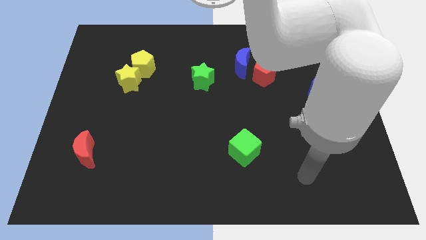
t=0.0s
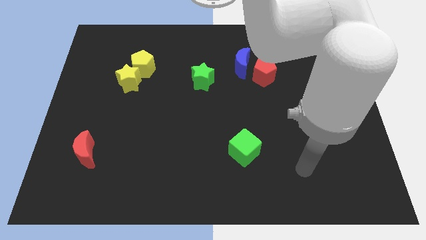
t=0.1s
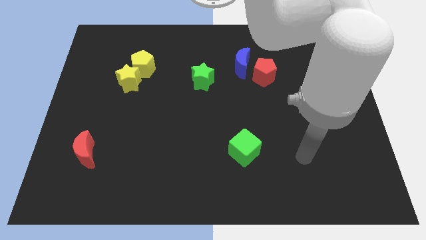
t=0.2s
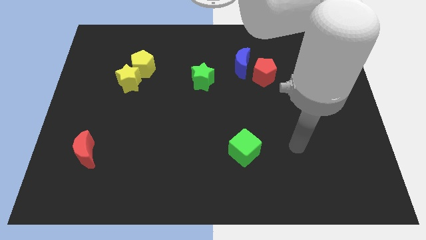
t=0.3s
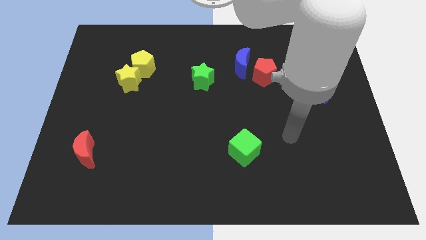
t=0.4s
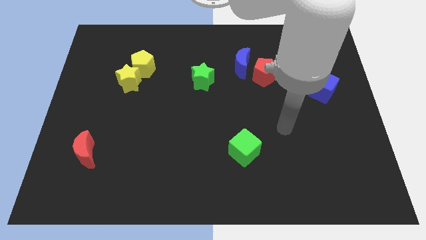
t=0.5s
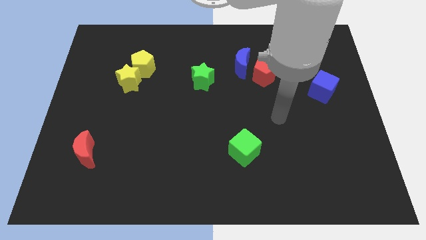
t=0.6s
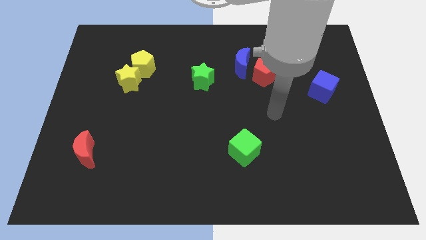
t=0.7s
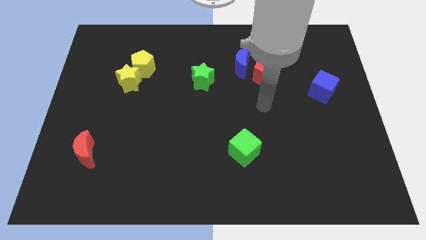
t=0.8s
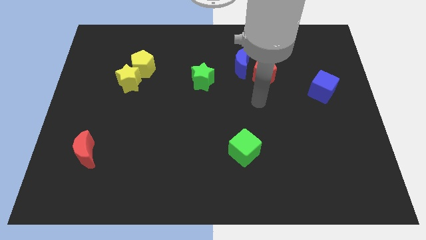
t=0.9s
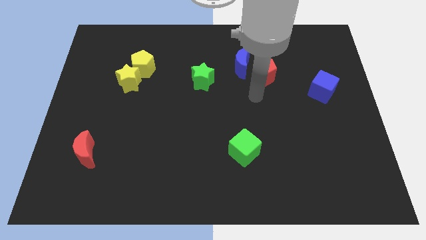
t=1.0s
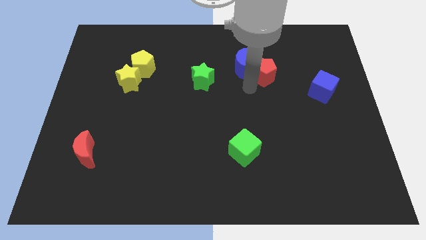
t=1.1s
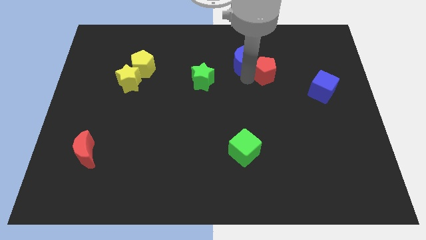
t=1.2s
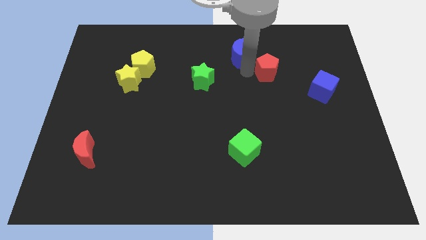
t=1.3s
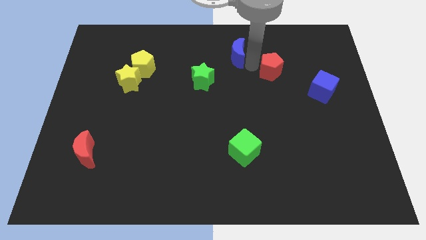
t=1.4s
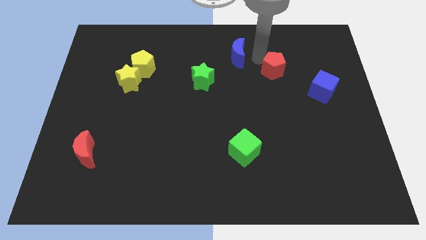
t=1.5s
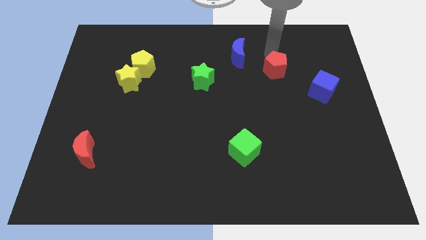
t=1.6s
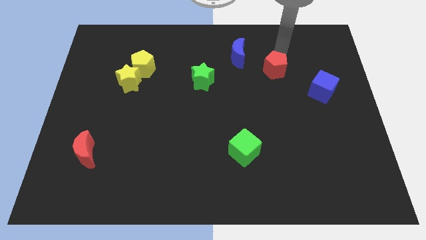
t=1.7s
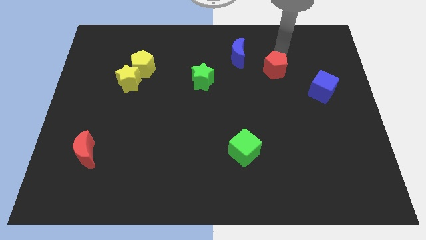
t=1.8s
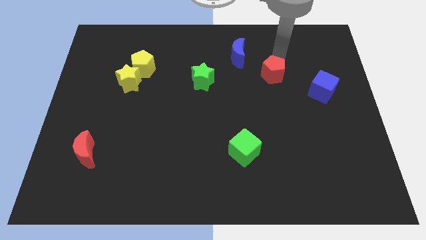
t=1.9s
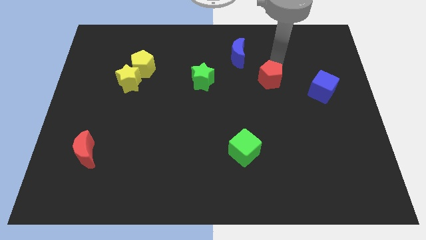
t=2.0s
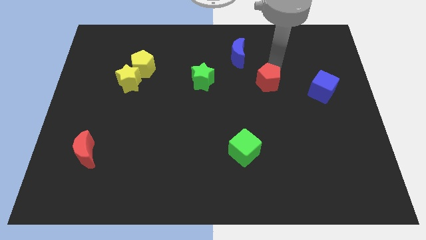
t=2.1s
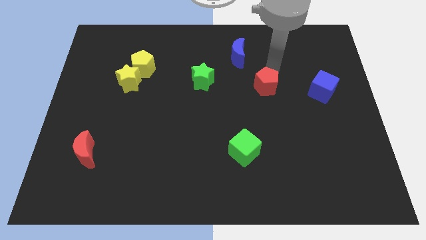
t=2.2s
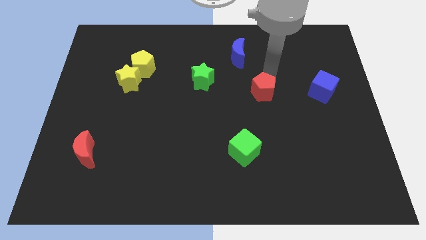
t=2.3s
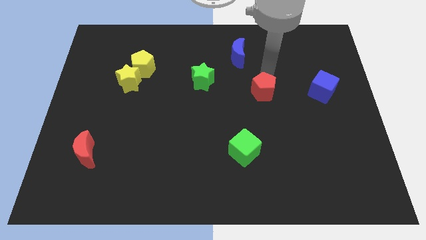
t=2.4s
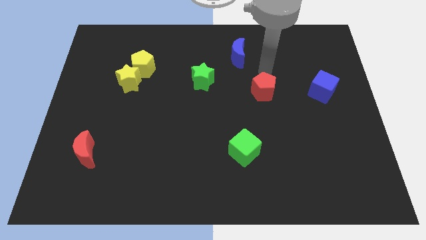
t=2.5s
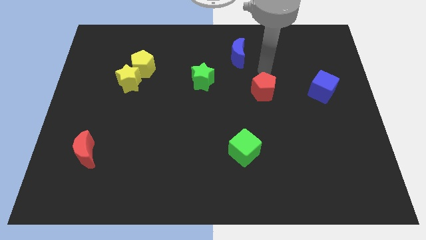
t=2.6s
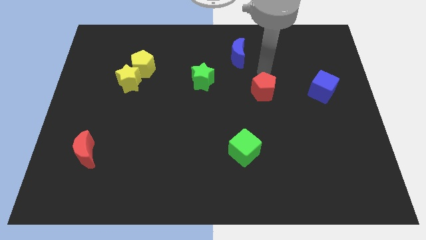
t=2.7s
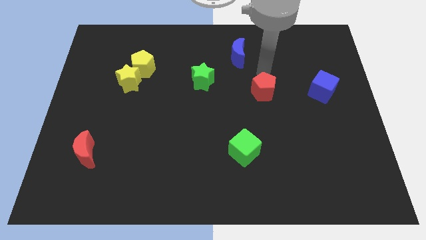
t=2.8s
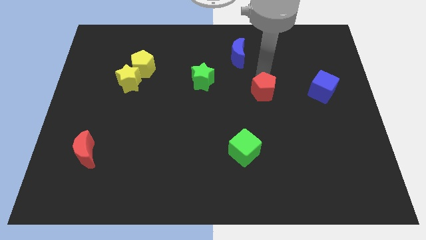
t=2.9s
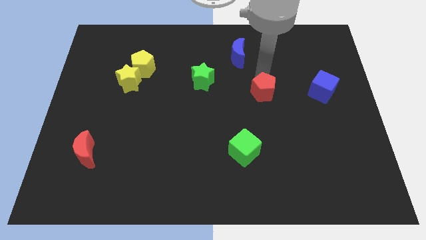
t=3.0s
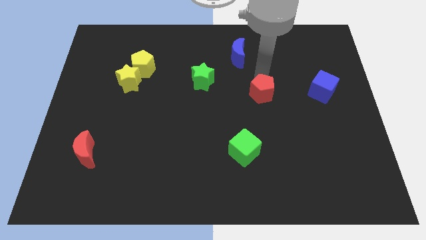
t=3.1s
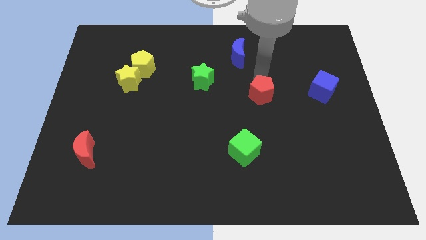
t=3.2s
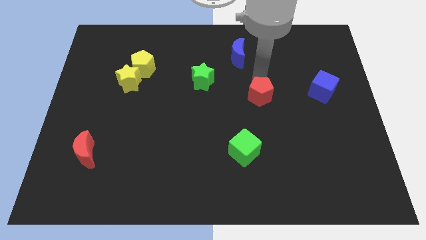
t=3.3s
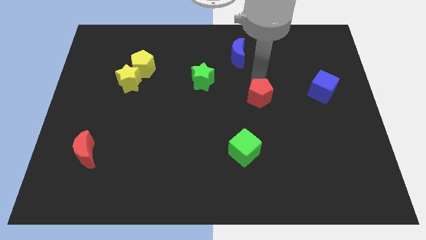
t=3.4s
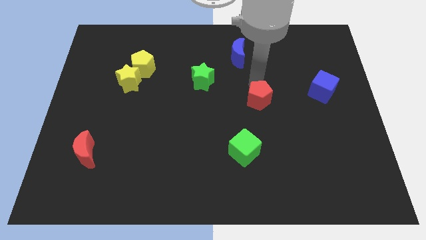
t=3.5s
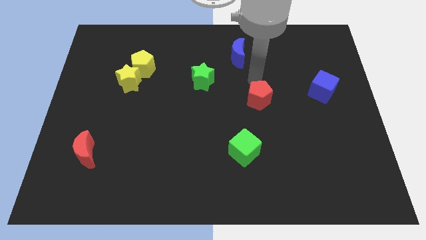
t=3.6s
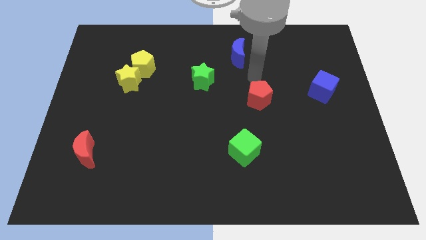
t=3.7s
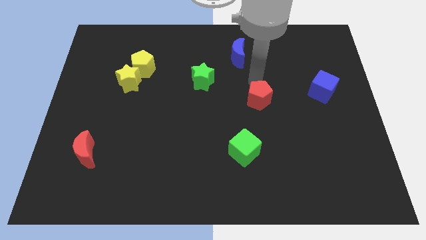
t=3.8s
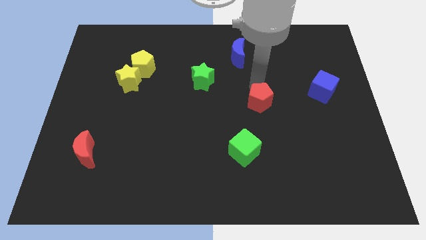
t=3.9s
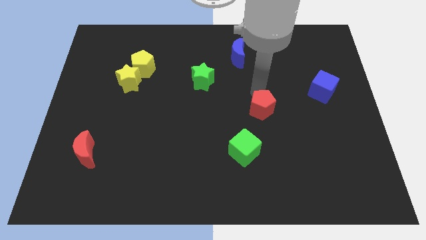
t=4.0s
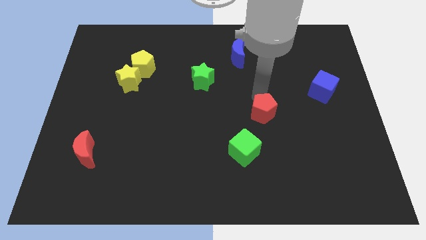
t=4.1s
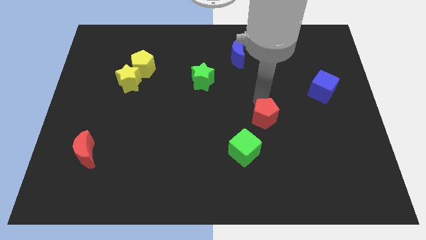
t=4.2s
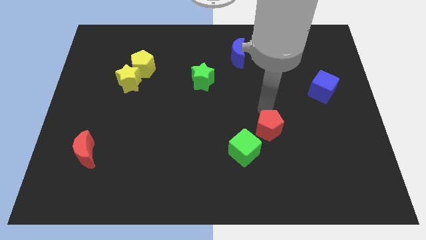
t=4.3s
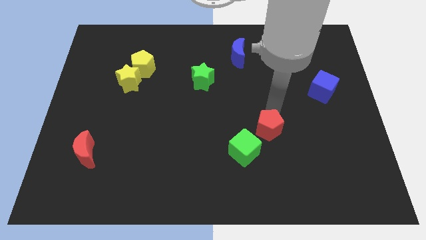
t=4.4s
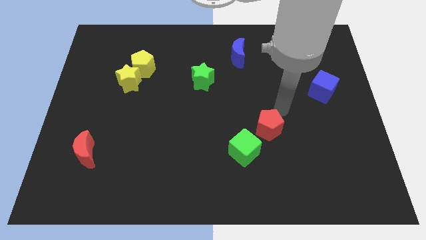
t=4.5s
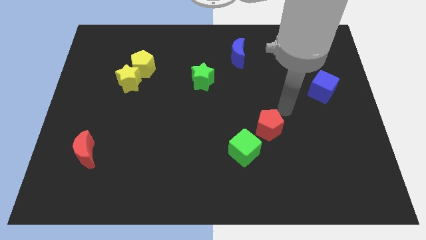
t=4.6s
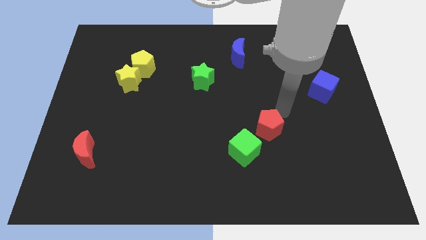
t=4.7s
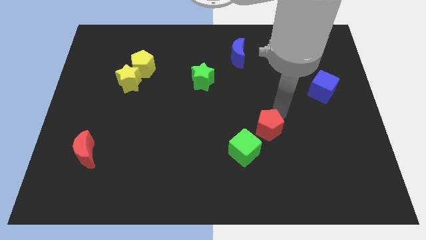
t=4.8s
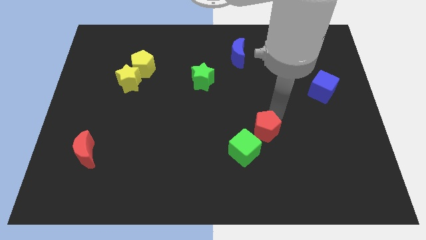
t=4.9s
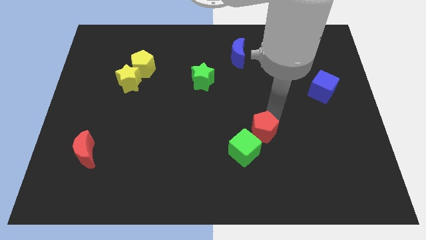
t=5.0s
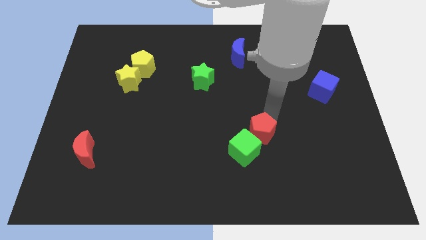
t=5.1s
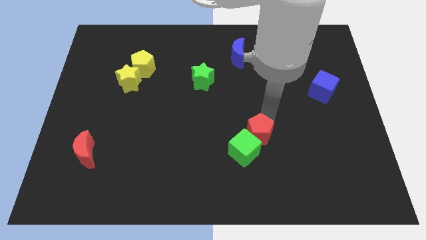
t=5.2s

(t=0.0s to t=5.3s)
slide the red pentagon towards the green cube

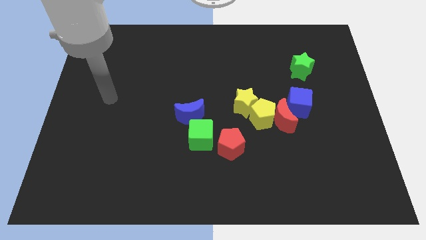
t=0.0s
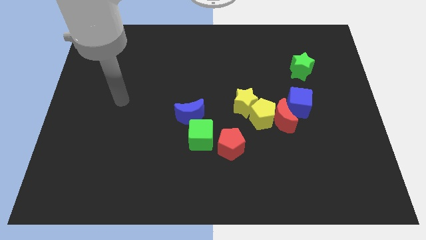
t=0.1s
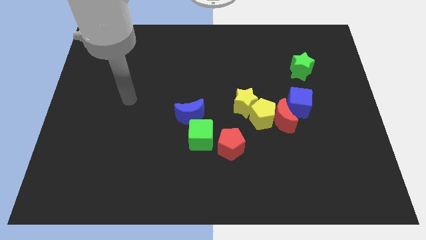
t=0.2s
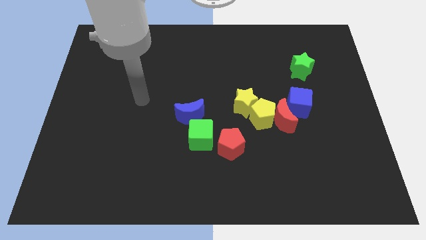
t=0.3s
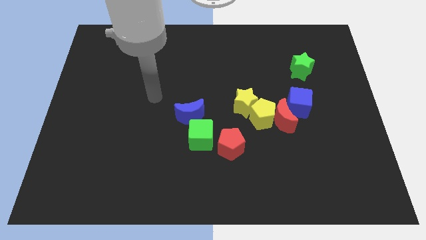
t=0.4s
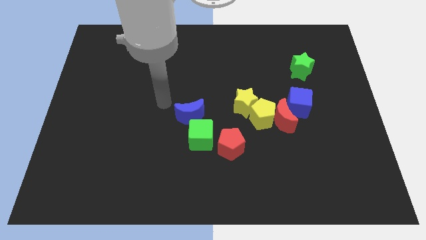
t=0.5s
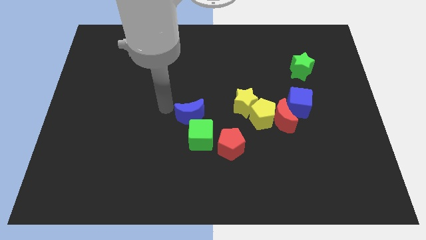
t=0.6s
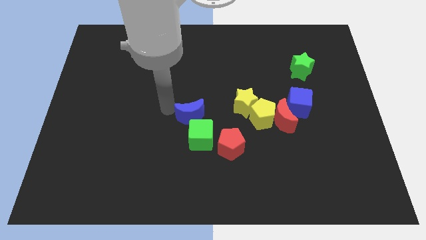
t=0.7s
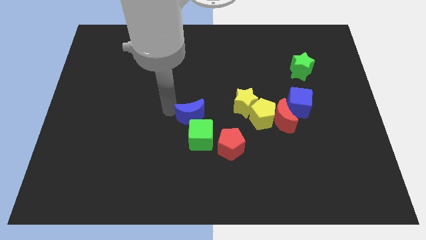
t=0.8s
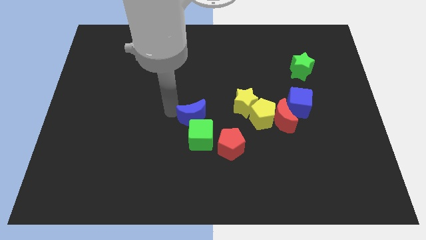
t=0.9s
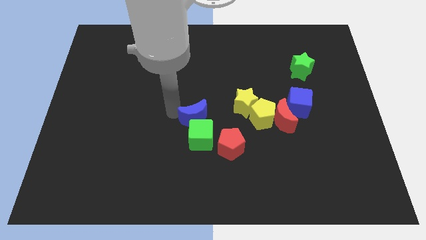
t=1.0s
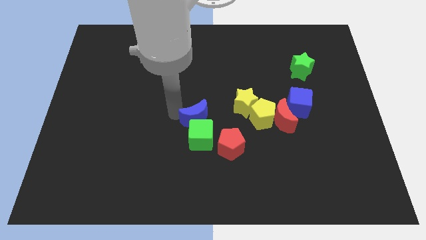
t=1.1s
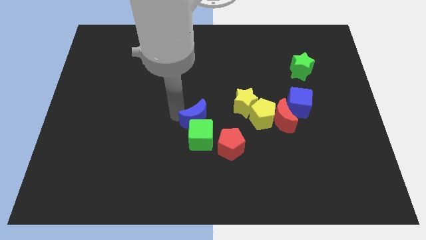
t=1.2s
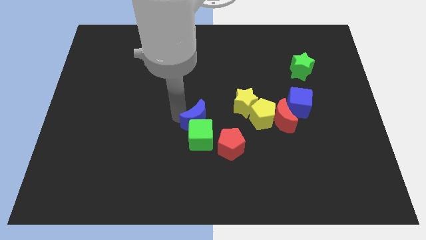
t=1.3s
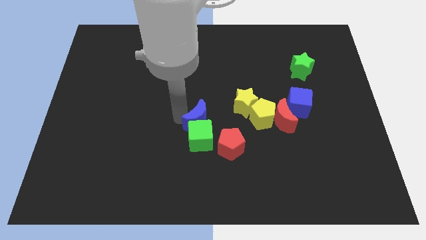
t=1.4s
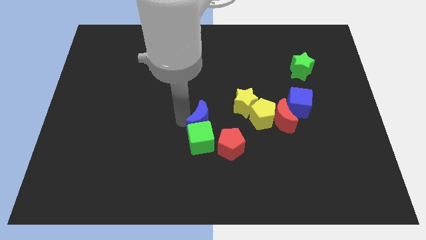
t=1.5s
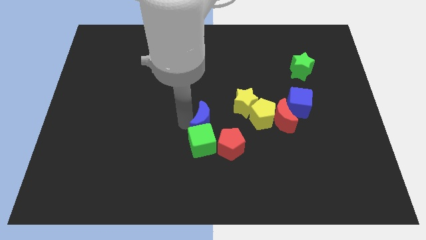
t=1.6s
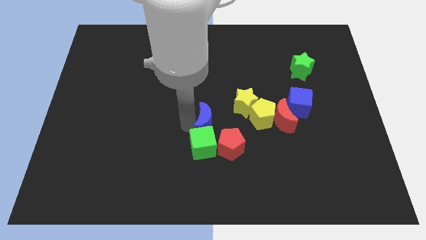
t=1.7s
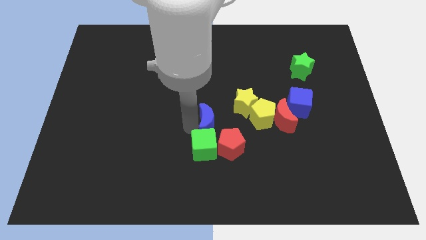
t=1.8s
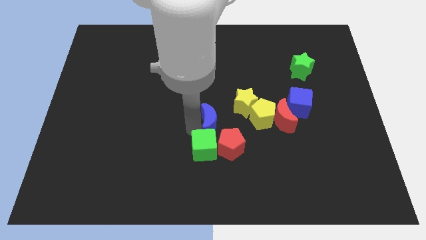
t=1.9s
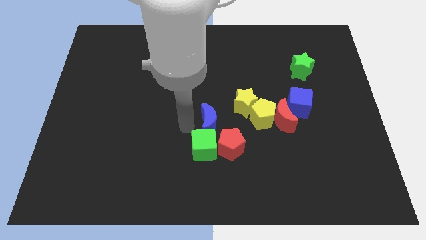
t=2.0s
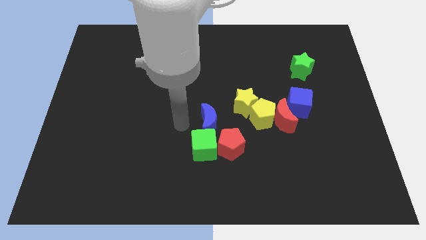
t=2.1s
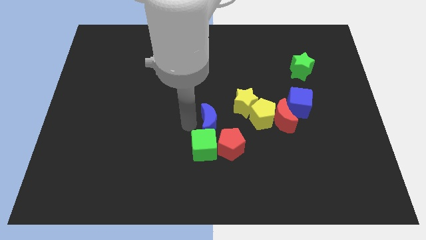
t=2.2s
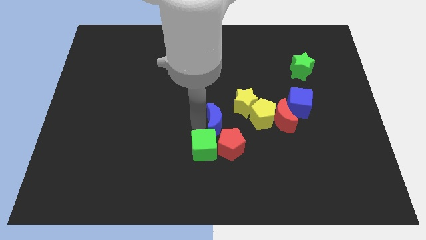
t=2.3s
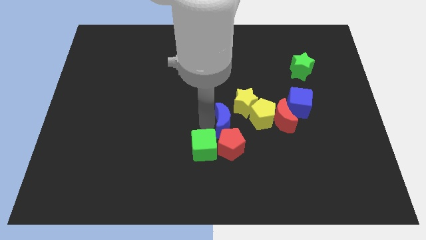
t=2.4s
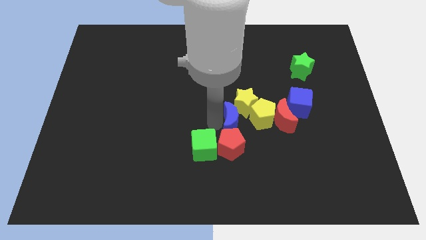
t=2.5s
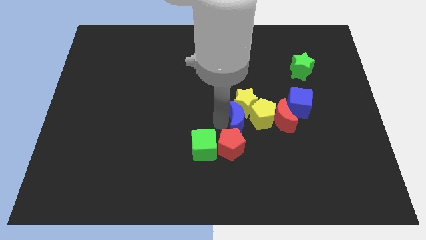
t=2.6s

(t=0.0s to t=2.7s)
push the blue moon towards the yellow pentagon
